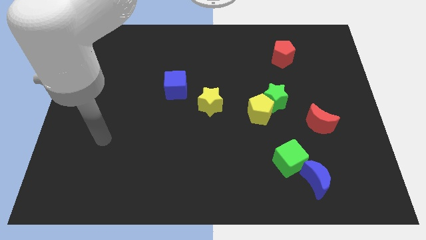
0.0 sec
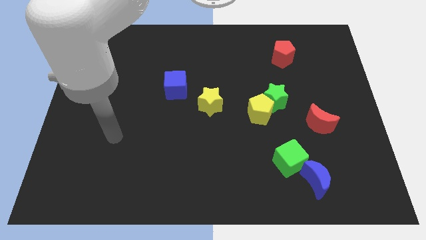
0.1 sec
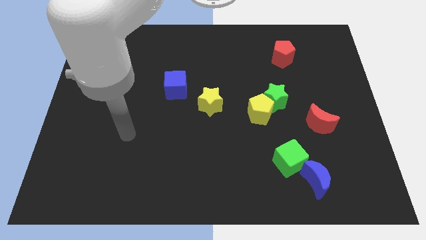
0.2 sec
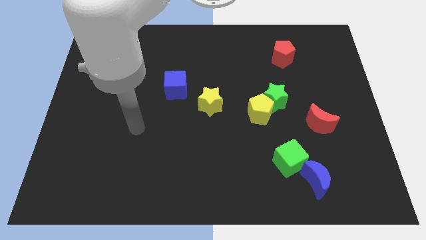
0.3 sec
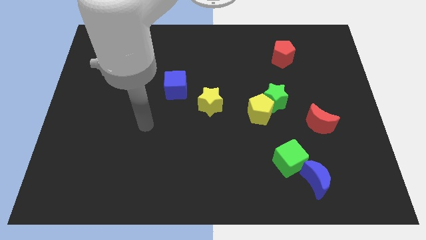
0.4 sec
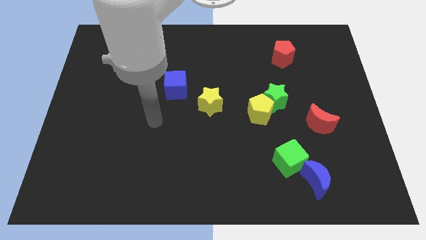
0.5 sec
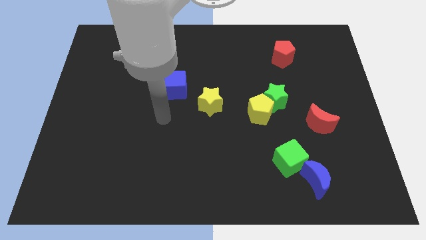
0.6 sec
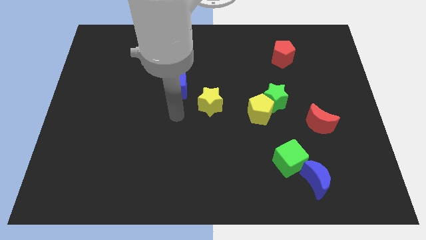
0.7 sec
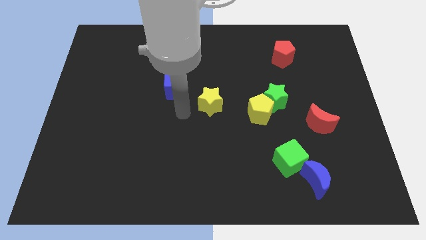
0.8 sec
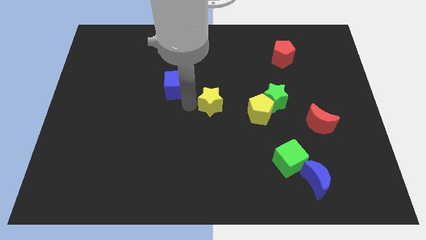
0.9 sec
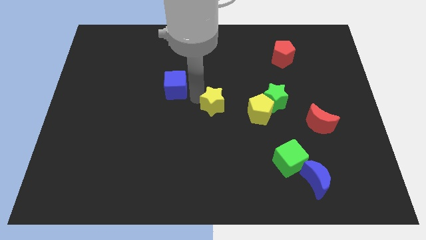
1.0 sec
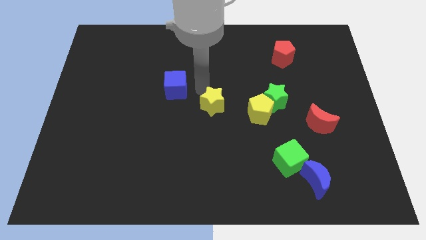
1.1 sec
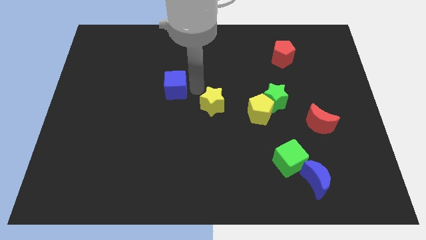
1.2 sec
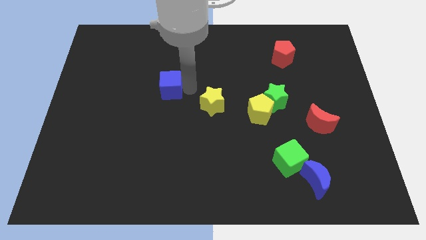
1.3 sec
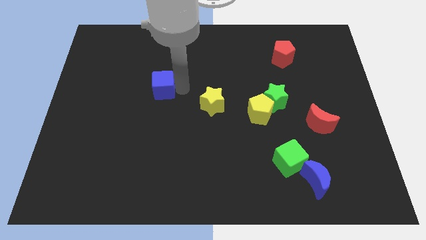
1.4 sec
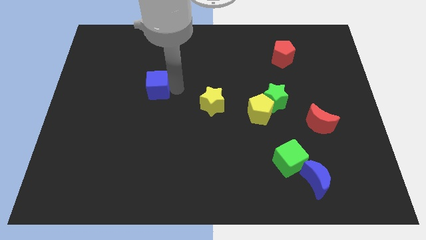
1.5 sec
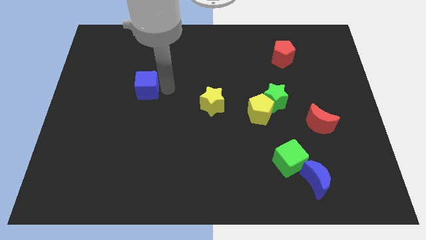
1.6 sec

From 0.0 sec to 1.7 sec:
move the blue cube to the left a bit

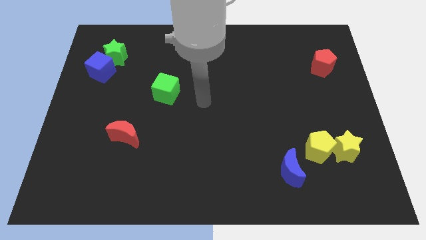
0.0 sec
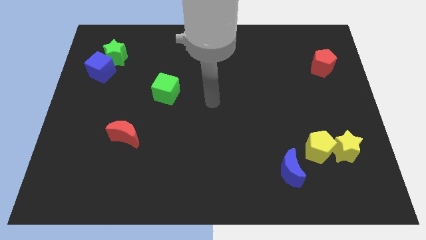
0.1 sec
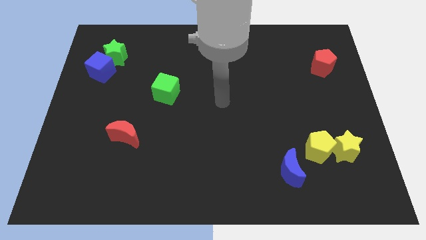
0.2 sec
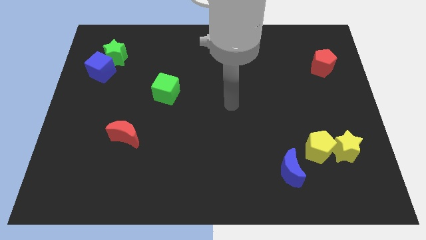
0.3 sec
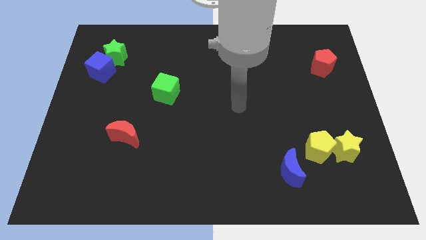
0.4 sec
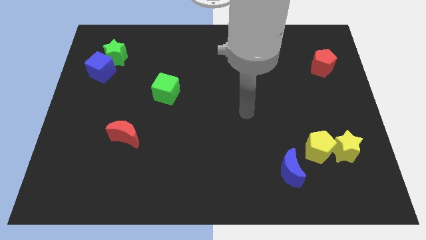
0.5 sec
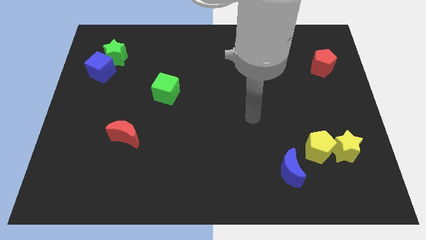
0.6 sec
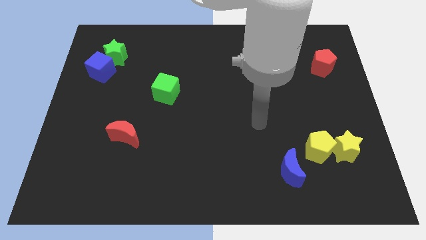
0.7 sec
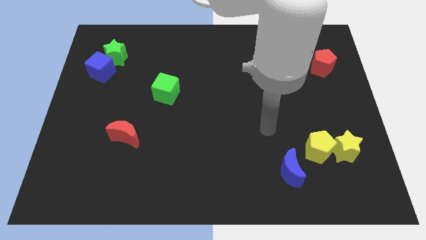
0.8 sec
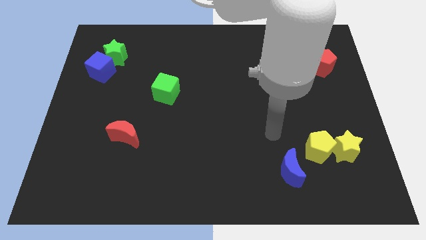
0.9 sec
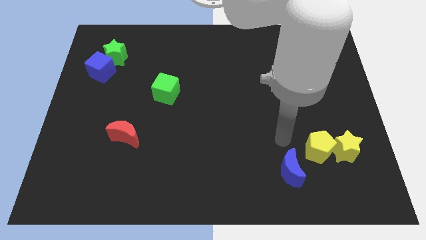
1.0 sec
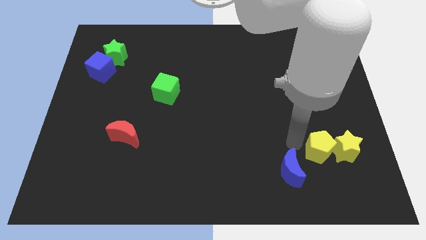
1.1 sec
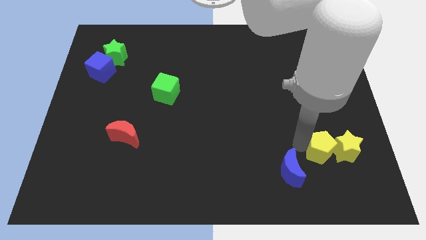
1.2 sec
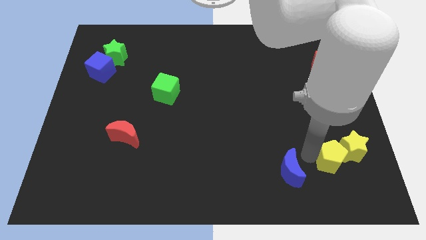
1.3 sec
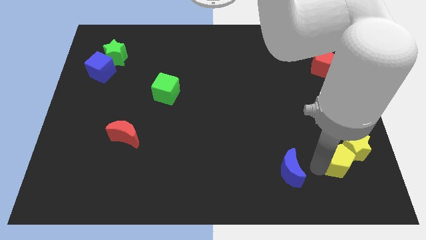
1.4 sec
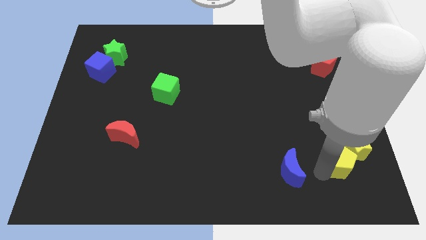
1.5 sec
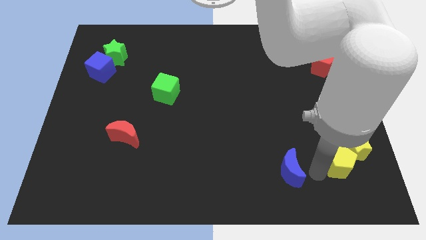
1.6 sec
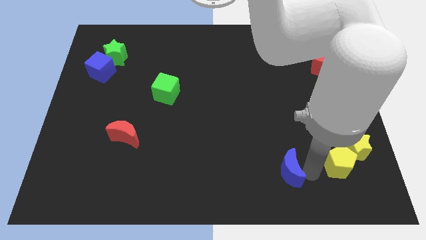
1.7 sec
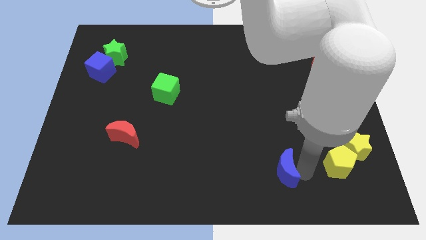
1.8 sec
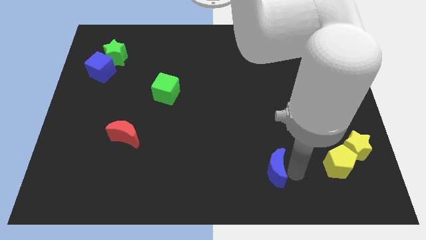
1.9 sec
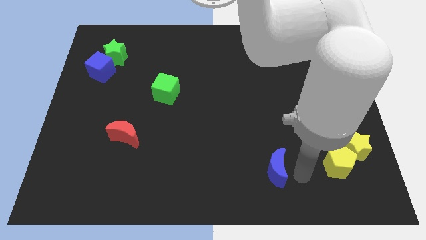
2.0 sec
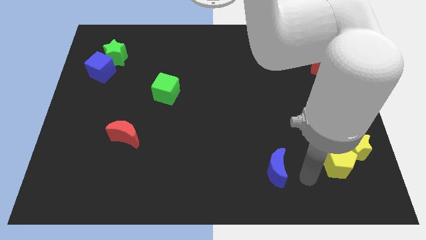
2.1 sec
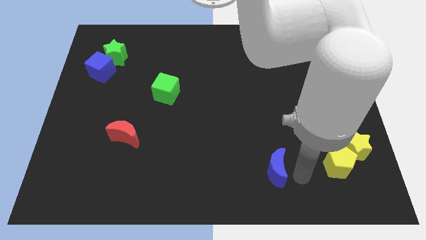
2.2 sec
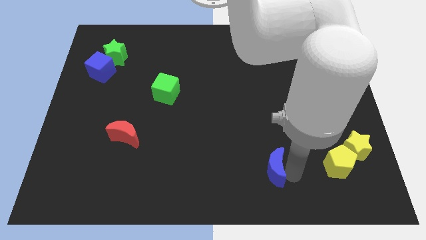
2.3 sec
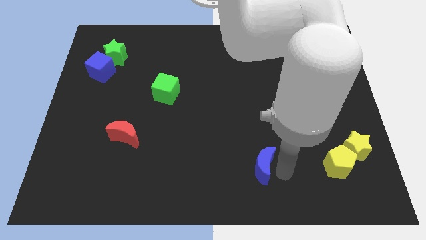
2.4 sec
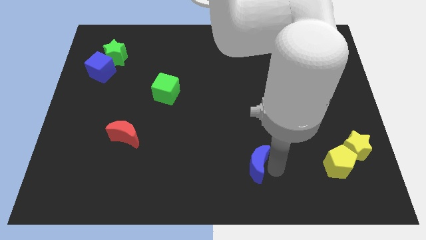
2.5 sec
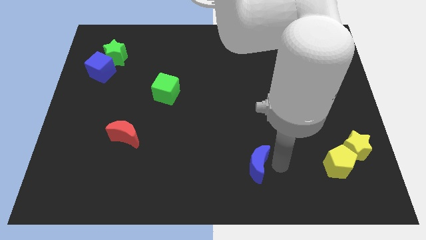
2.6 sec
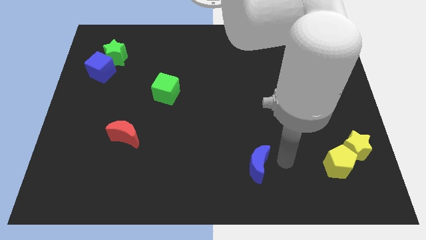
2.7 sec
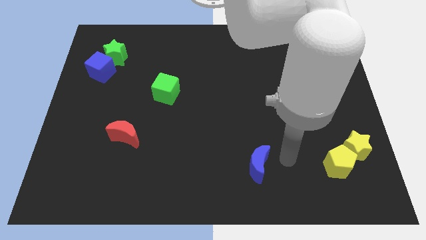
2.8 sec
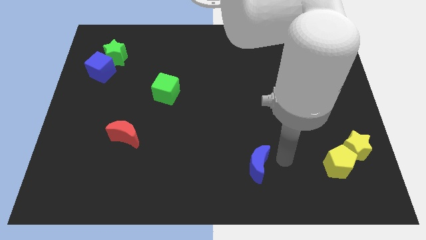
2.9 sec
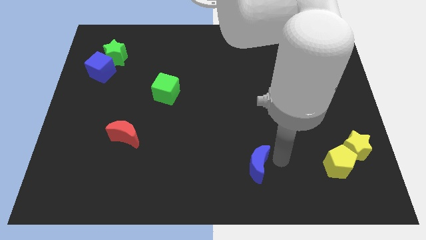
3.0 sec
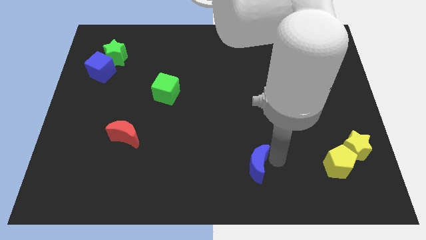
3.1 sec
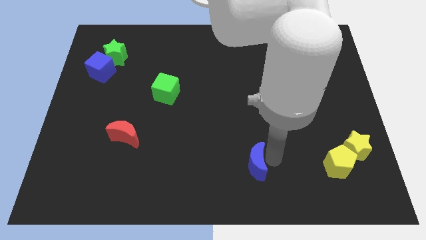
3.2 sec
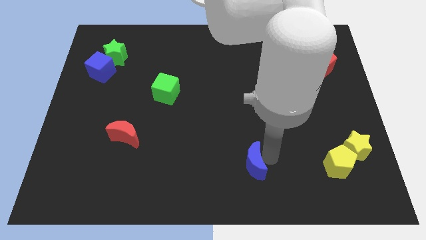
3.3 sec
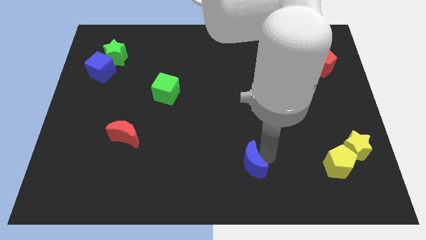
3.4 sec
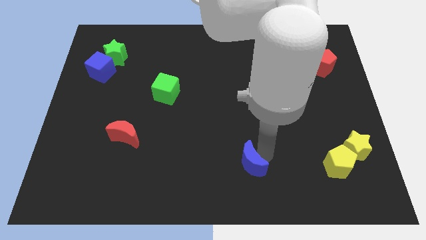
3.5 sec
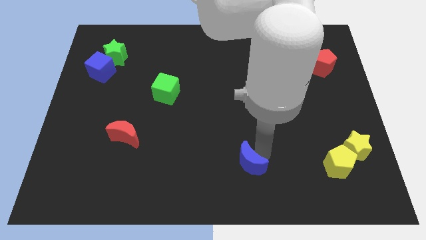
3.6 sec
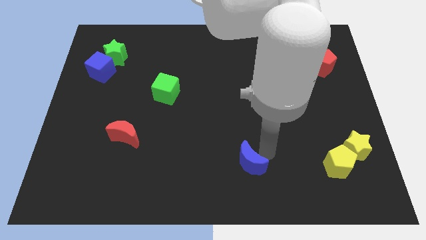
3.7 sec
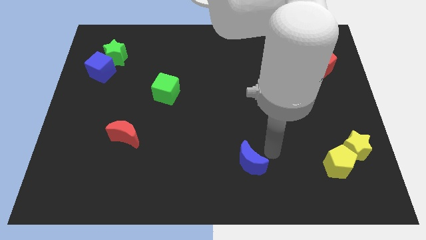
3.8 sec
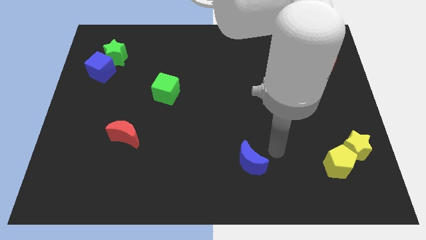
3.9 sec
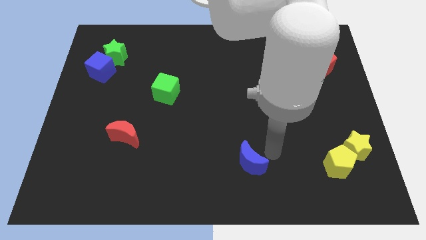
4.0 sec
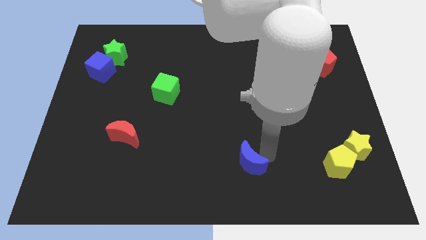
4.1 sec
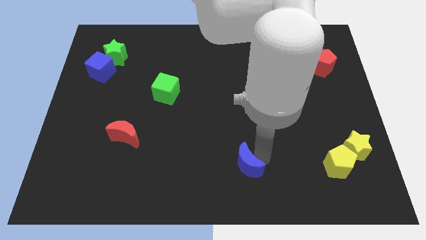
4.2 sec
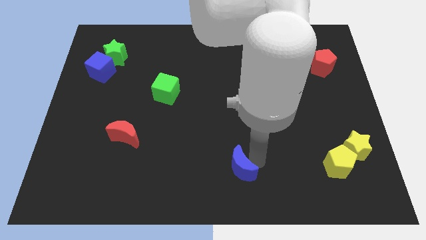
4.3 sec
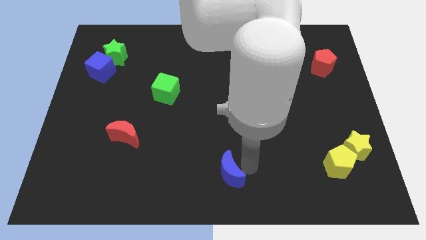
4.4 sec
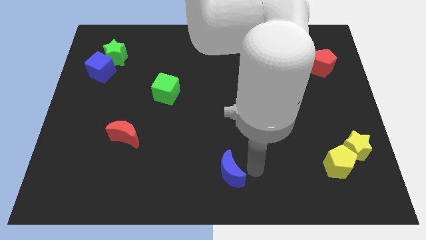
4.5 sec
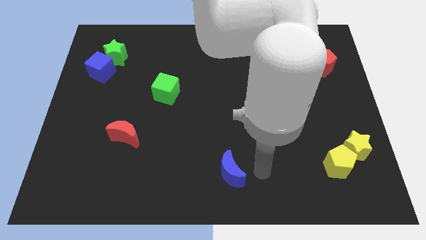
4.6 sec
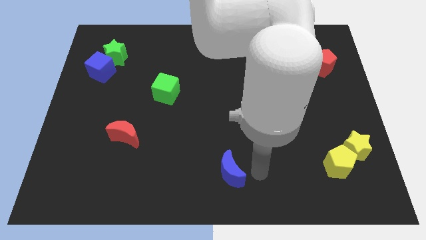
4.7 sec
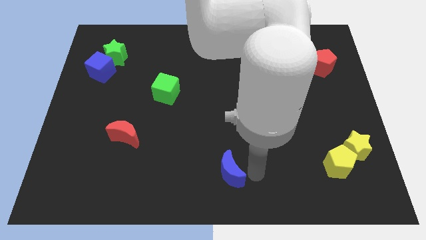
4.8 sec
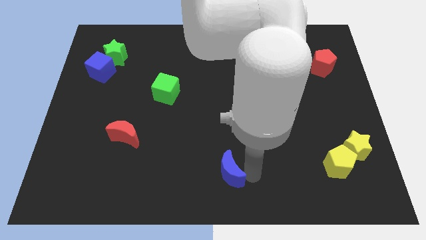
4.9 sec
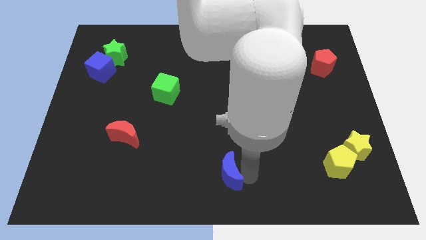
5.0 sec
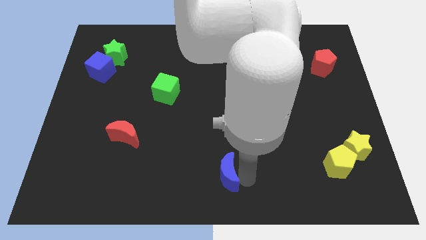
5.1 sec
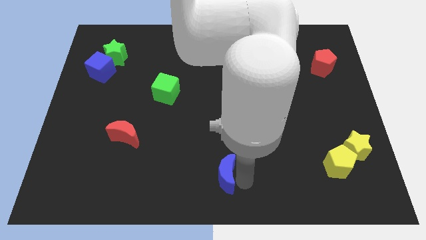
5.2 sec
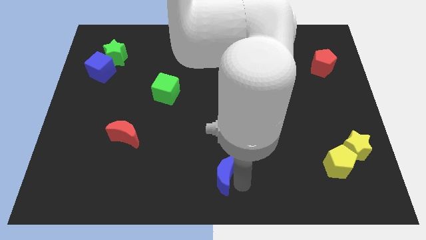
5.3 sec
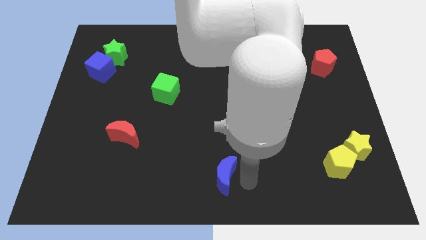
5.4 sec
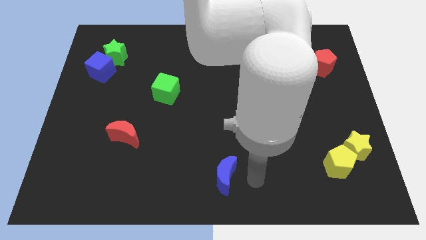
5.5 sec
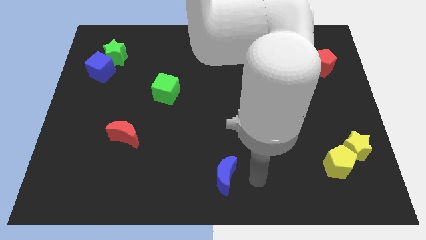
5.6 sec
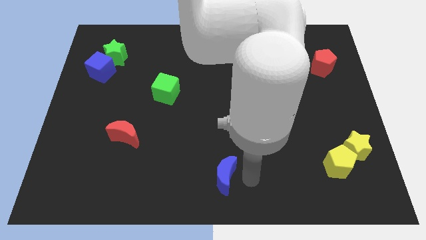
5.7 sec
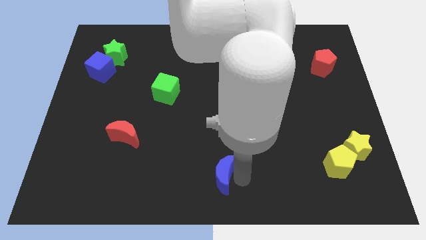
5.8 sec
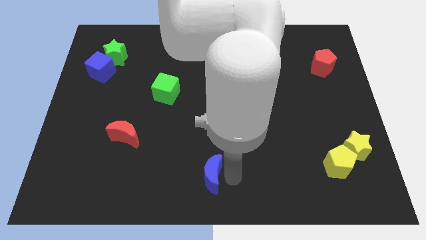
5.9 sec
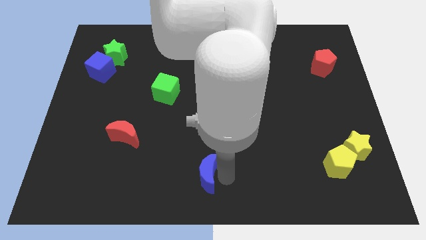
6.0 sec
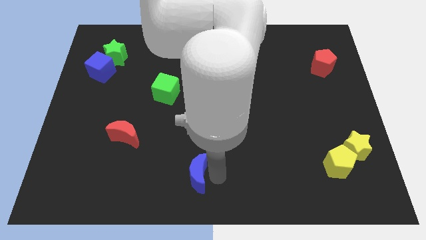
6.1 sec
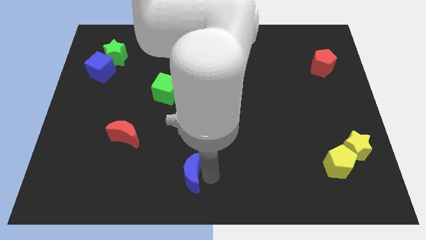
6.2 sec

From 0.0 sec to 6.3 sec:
push the blue moon left

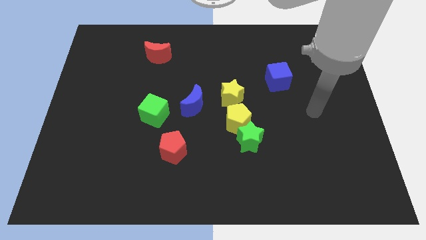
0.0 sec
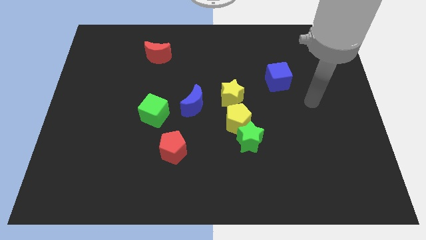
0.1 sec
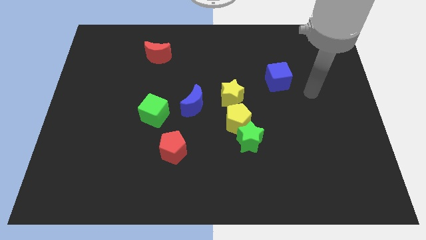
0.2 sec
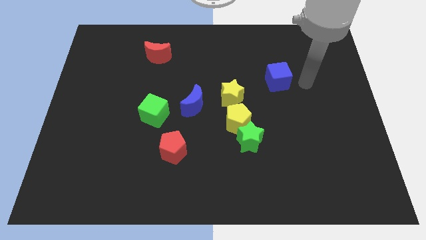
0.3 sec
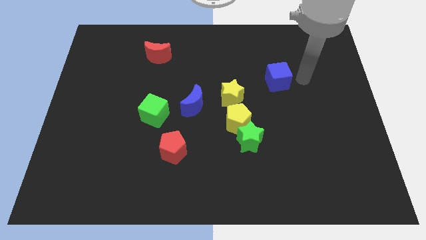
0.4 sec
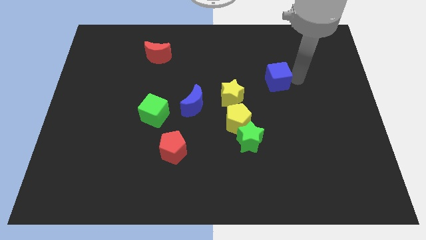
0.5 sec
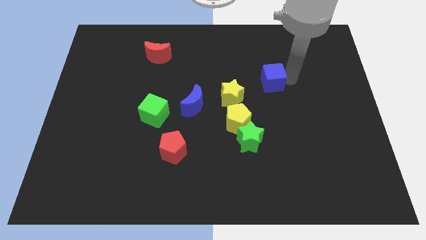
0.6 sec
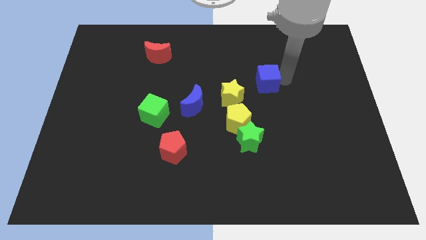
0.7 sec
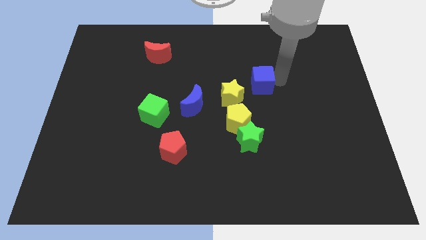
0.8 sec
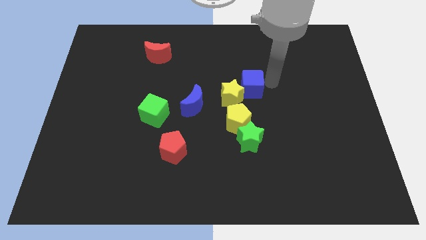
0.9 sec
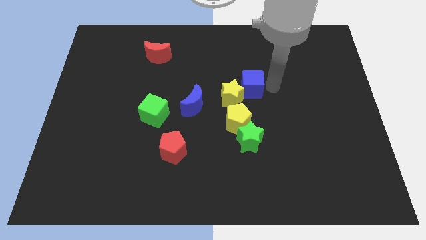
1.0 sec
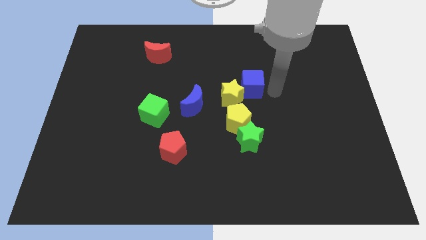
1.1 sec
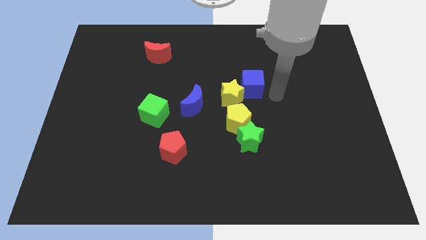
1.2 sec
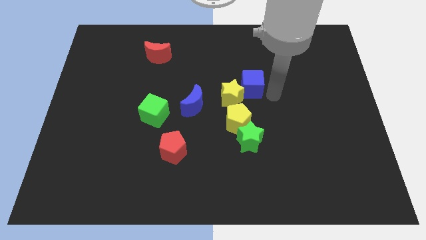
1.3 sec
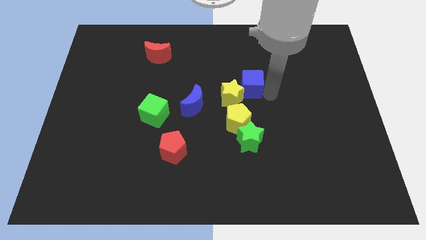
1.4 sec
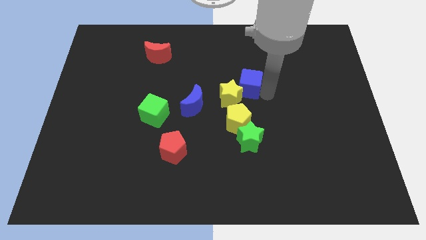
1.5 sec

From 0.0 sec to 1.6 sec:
slide the blue cube left a little
